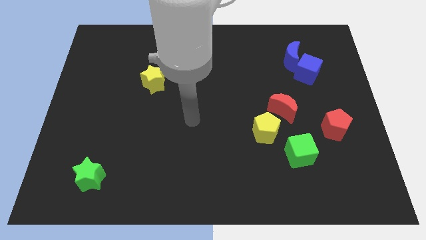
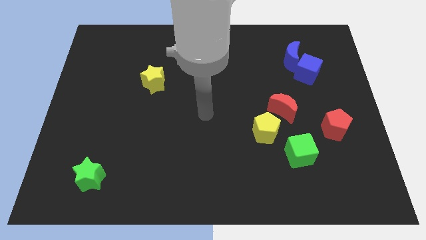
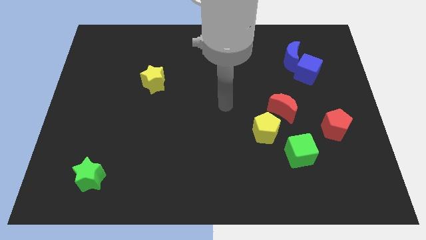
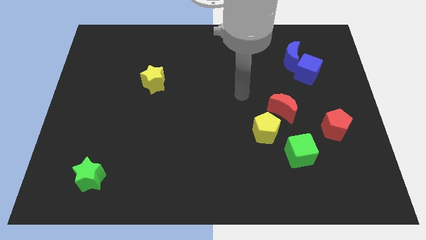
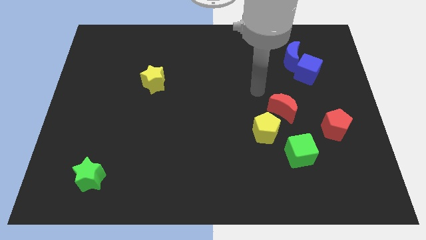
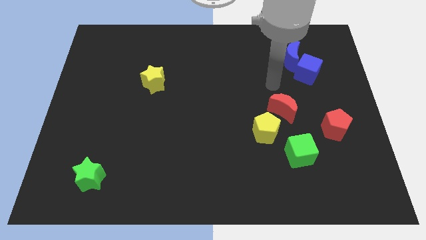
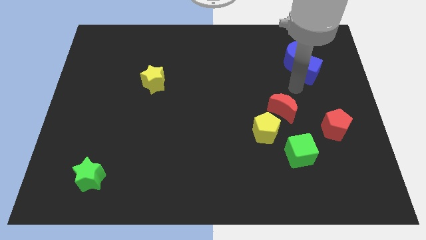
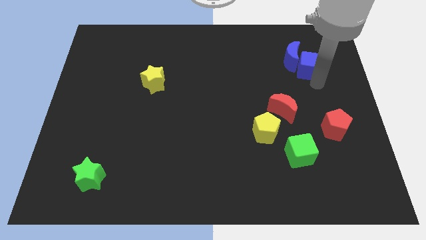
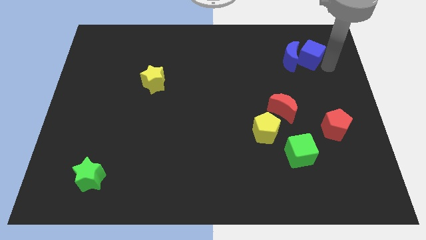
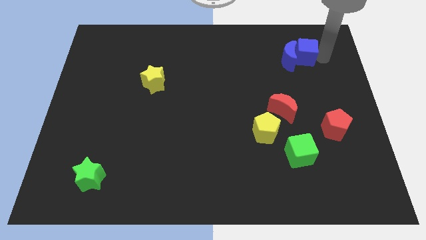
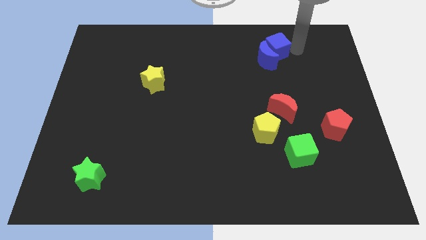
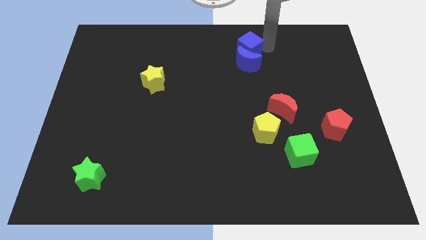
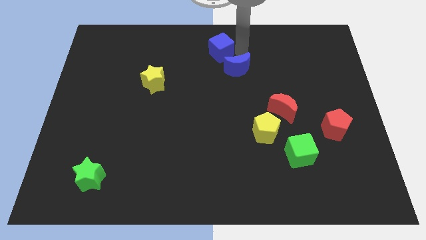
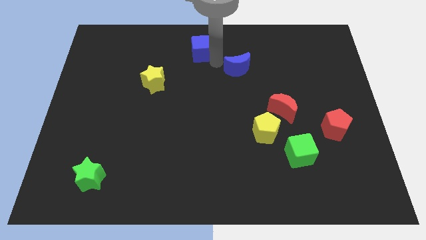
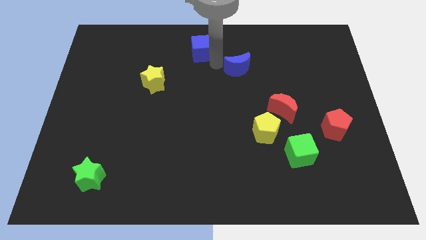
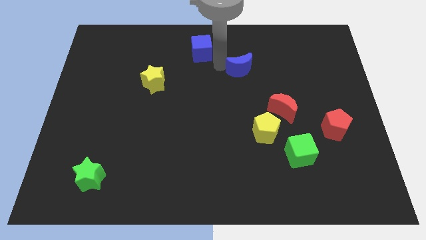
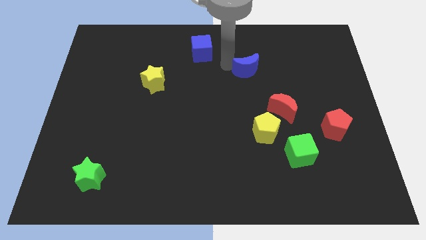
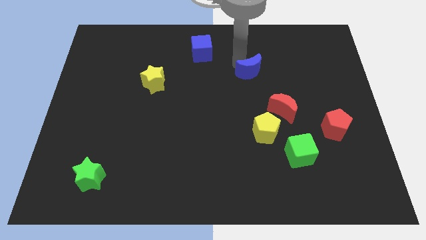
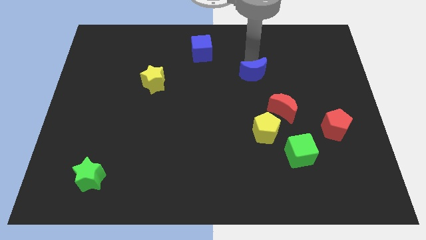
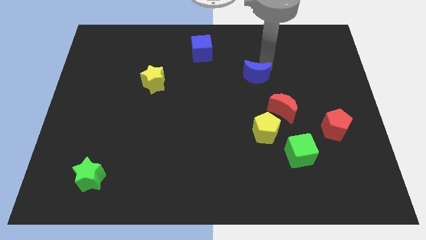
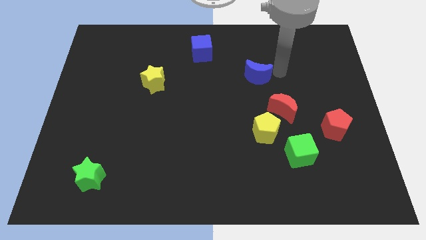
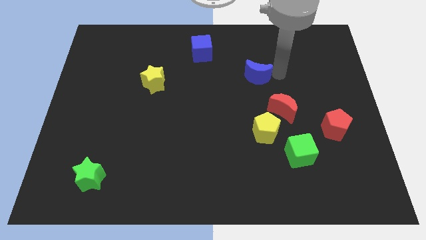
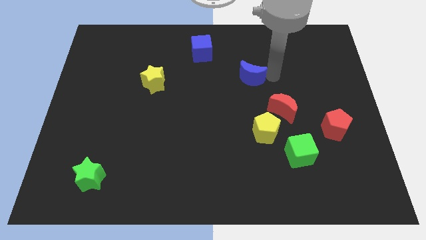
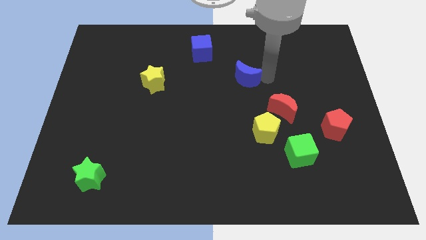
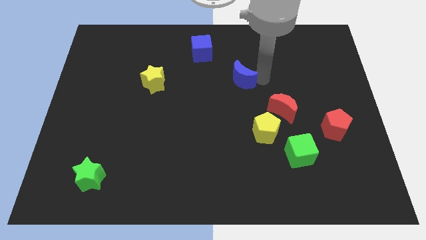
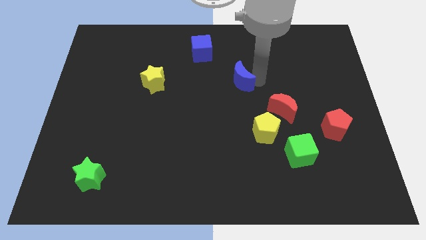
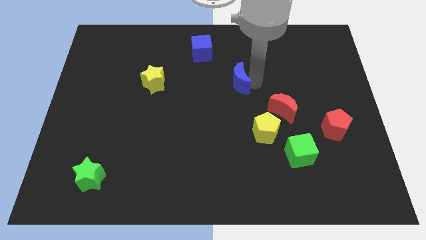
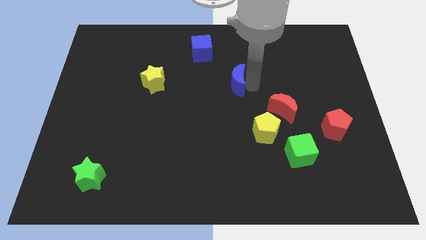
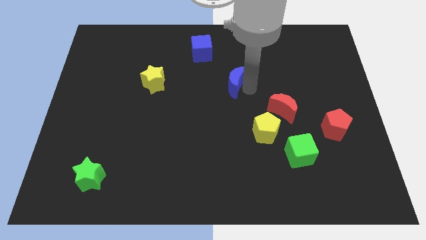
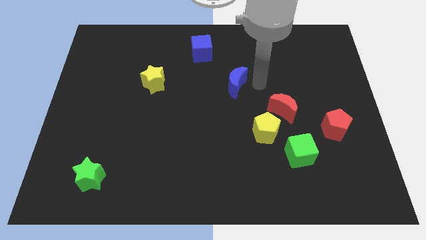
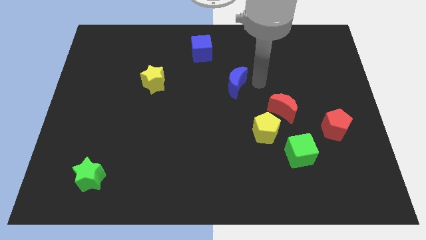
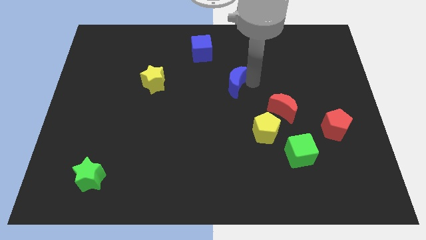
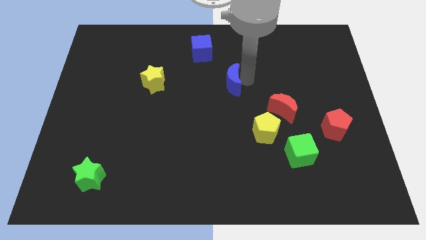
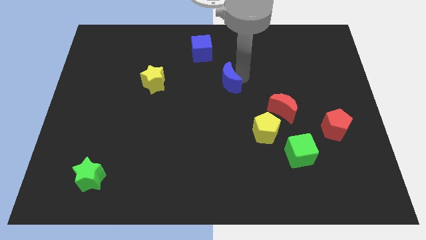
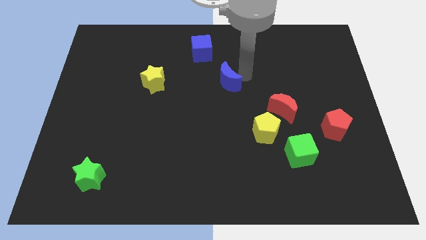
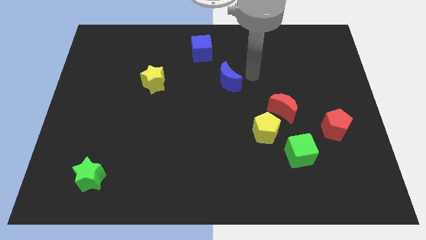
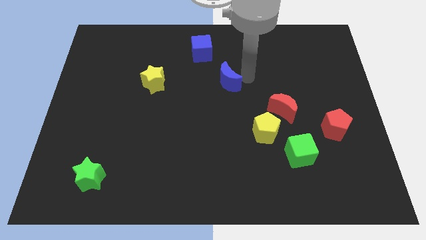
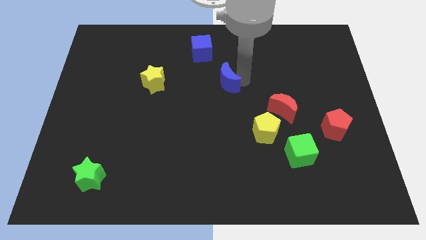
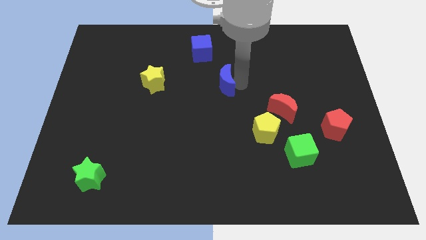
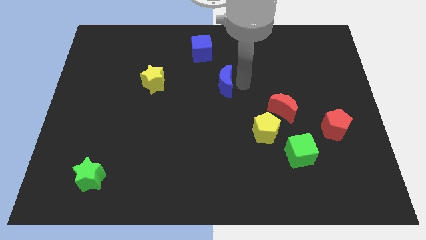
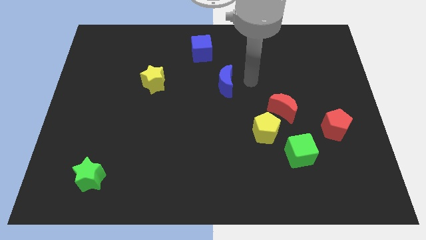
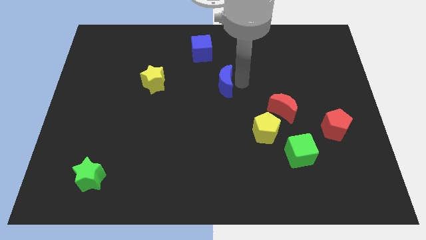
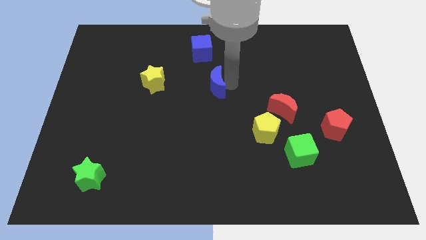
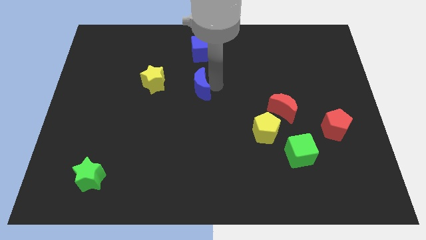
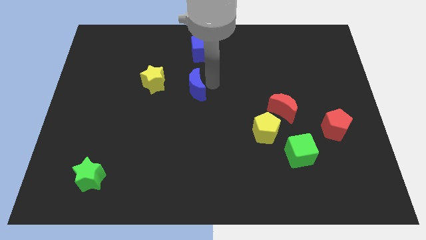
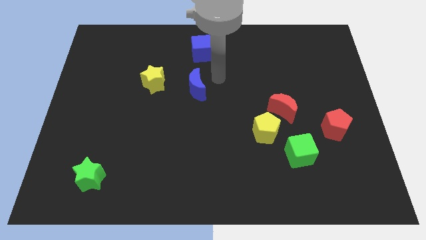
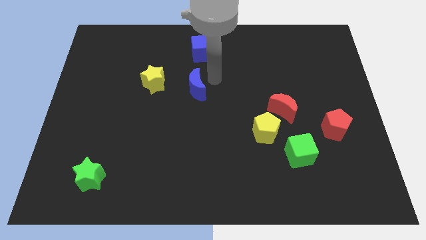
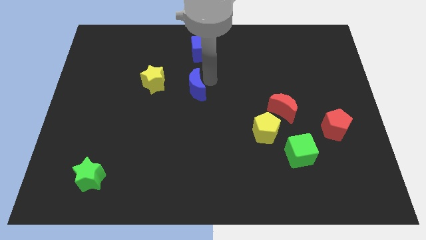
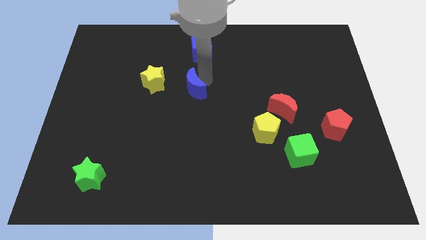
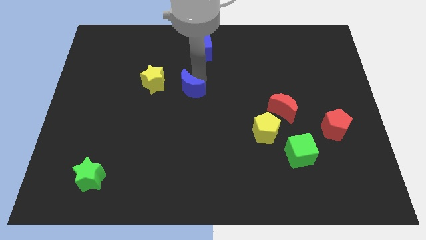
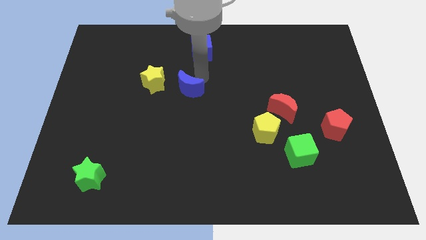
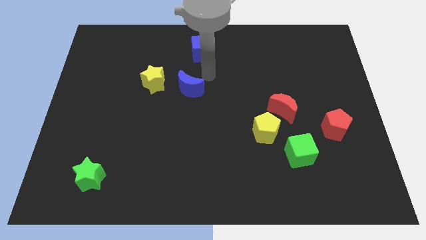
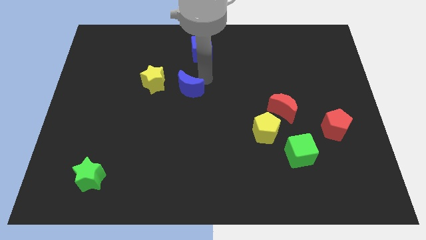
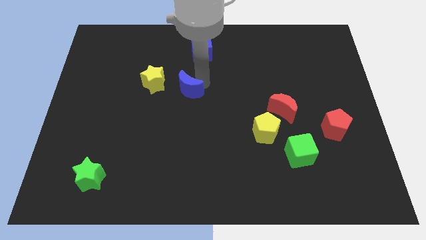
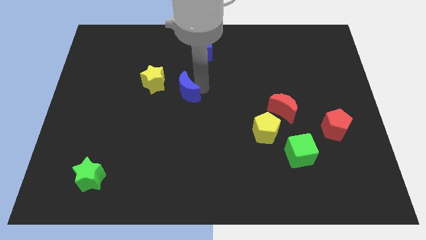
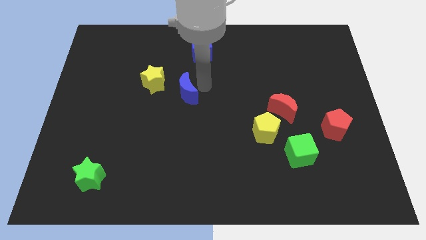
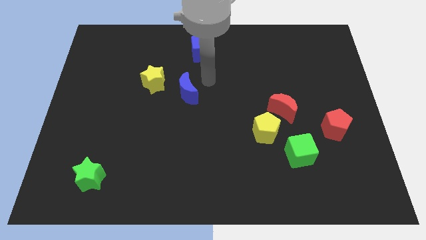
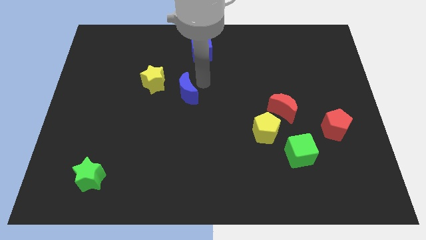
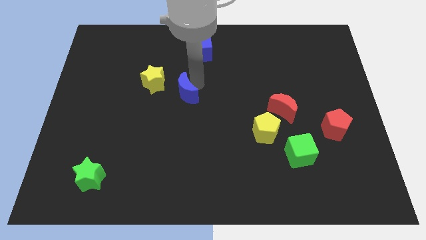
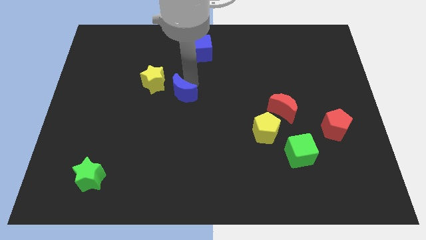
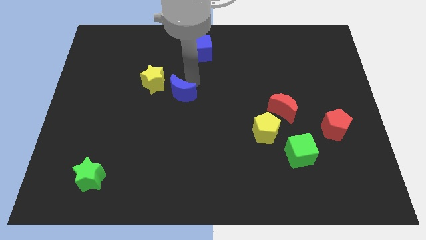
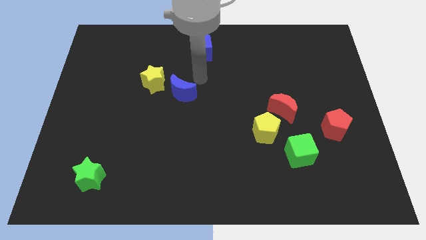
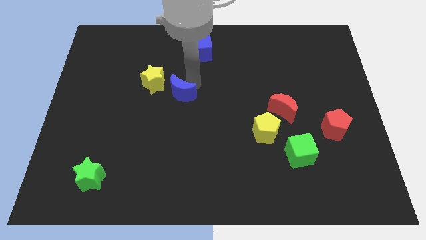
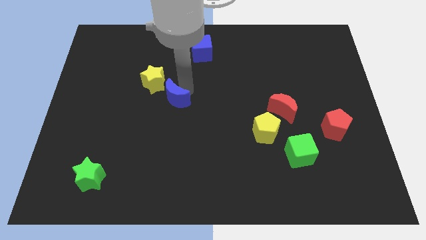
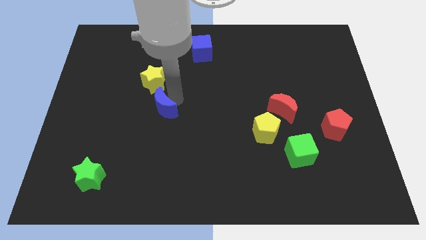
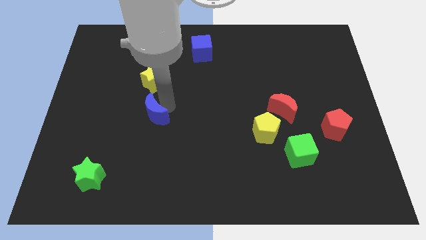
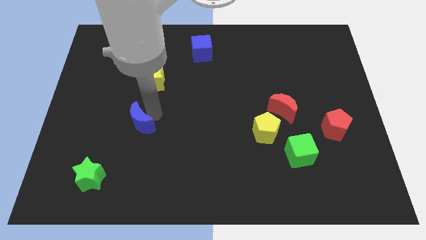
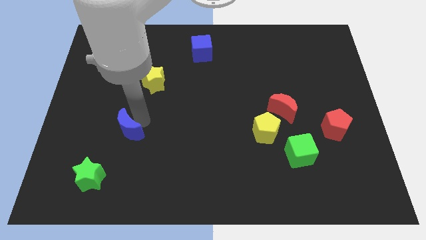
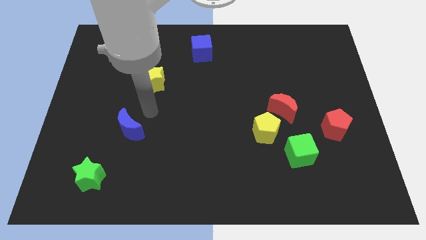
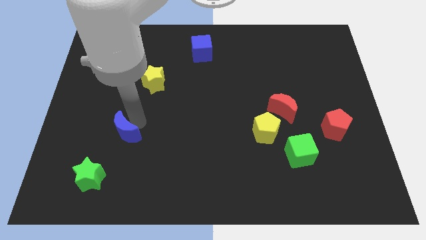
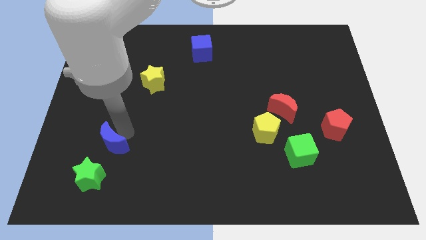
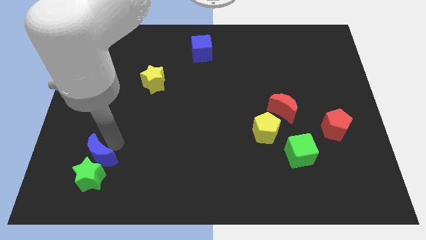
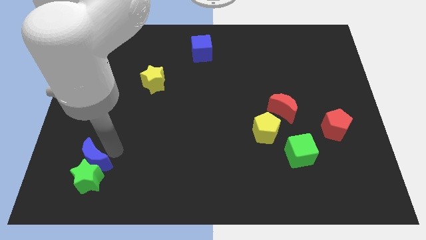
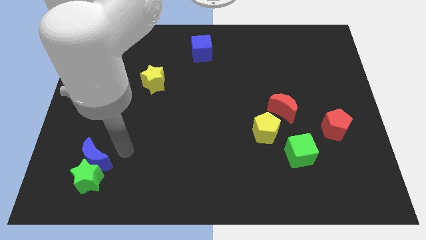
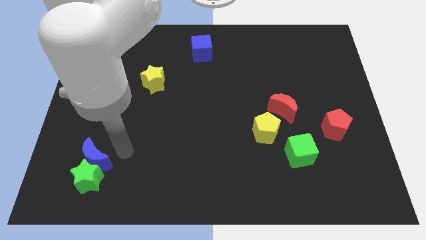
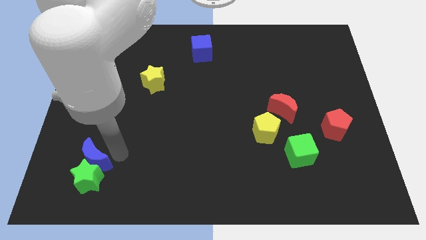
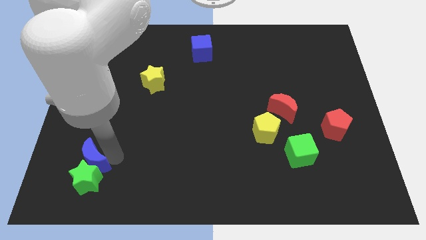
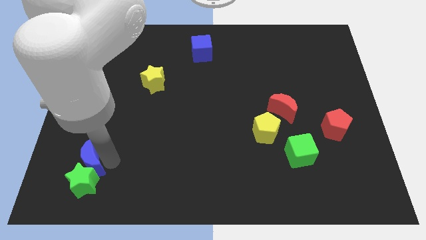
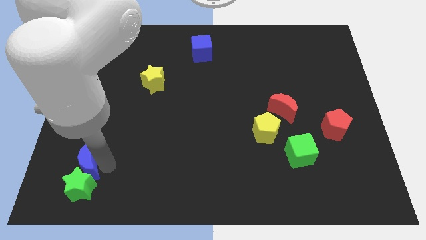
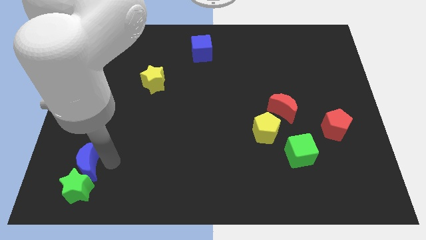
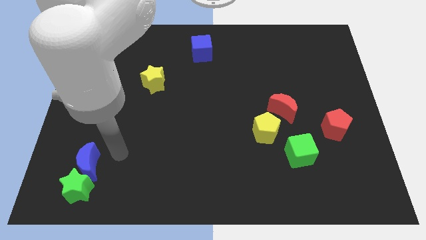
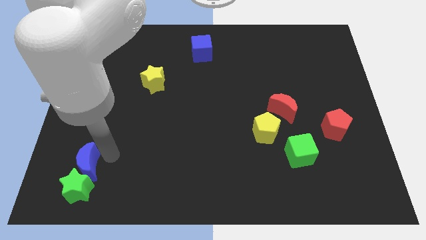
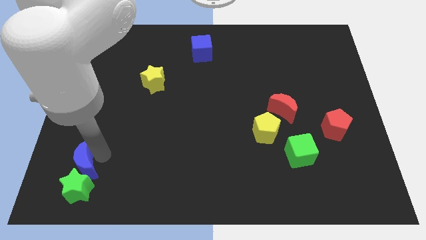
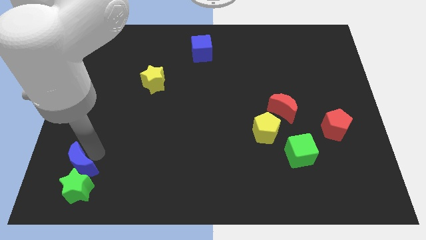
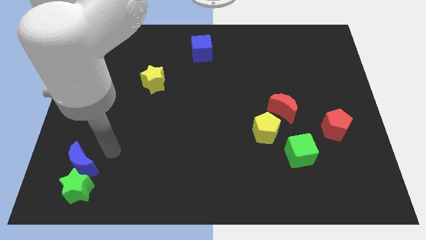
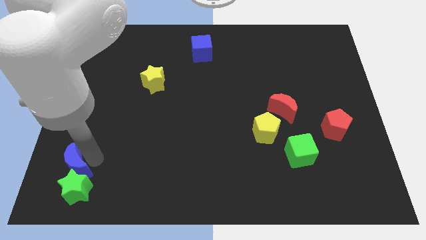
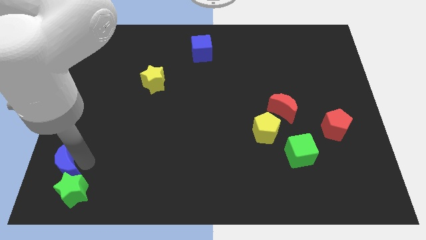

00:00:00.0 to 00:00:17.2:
put the blue moon to the bottom left
